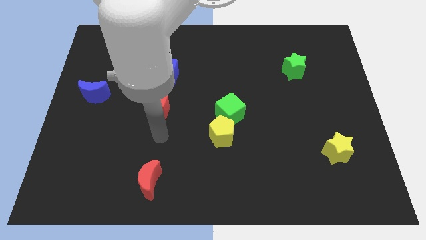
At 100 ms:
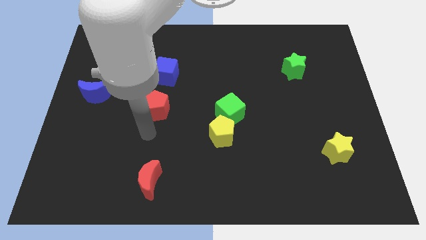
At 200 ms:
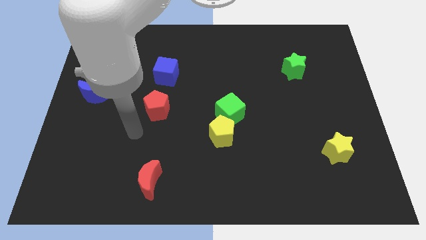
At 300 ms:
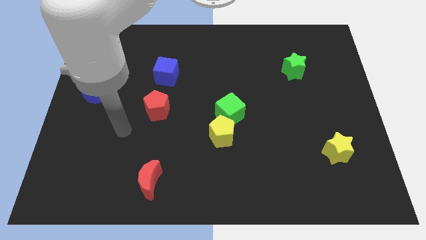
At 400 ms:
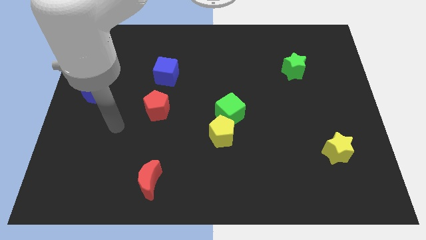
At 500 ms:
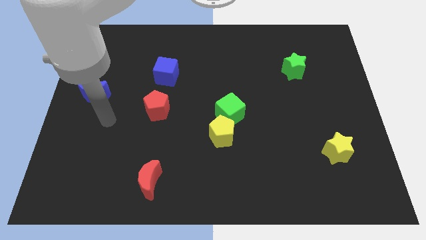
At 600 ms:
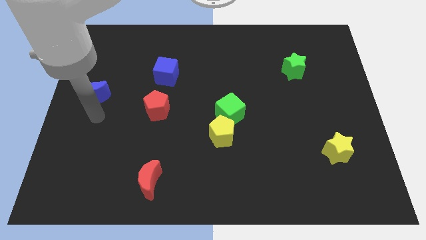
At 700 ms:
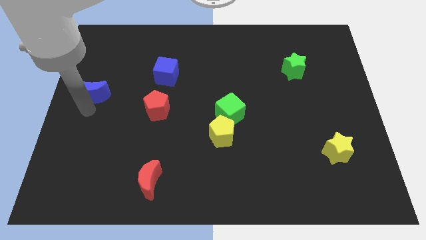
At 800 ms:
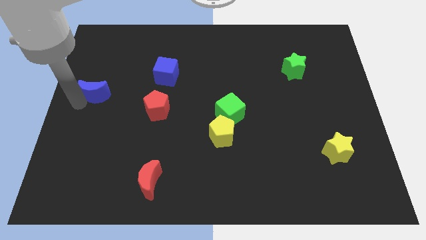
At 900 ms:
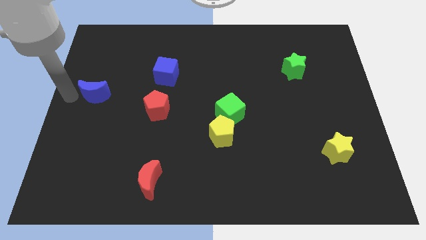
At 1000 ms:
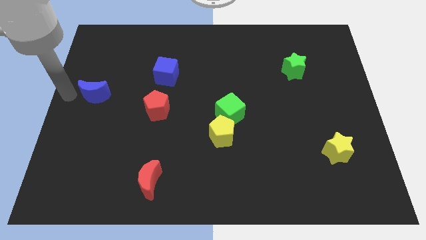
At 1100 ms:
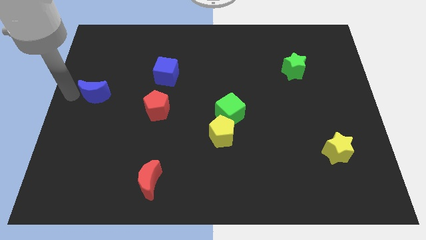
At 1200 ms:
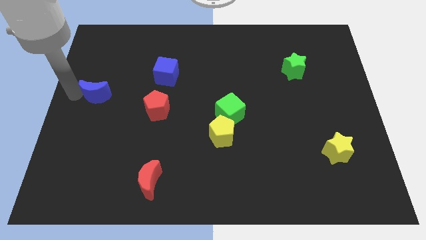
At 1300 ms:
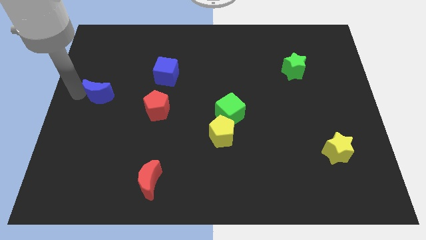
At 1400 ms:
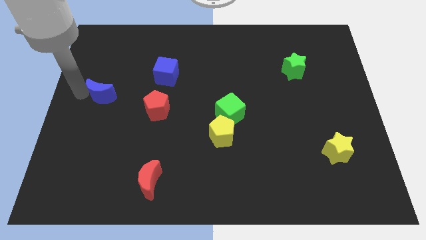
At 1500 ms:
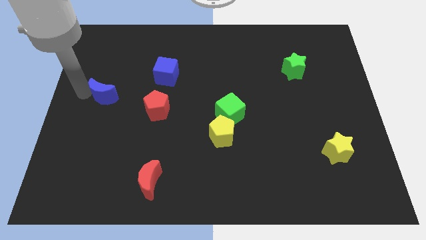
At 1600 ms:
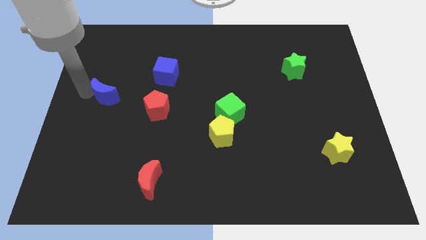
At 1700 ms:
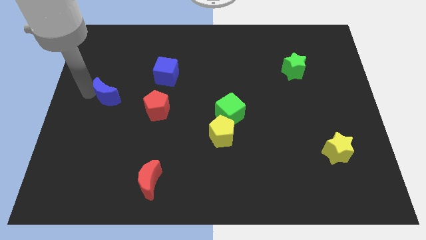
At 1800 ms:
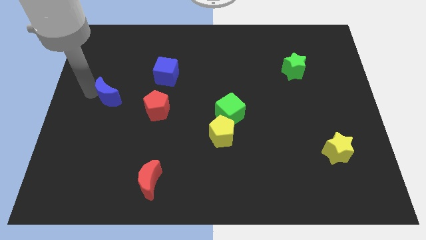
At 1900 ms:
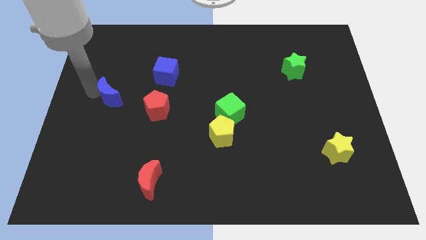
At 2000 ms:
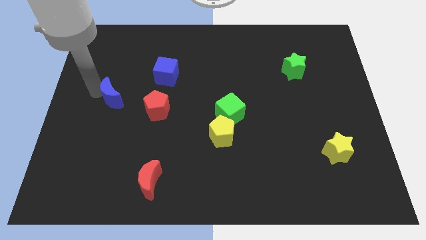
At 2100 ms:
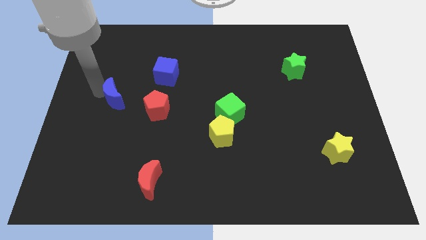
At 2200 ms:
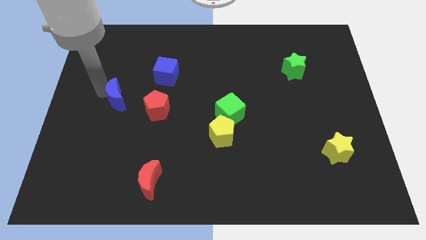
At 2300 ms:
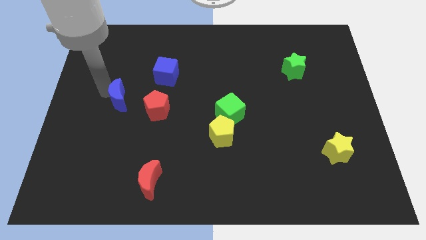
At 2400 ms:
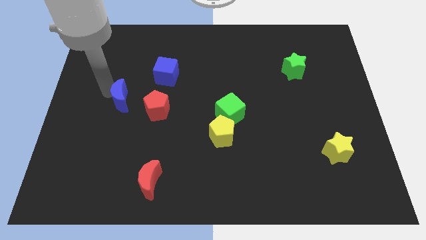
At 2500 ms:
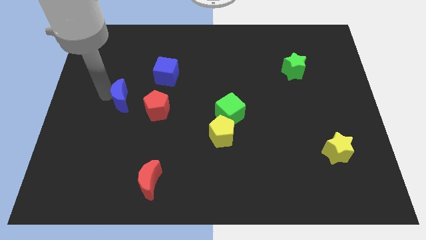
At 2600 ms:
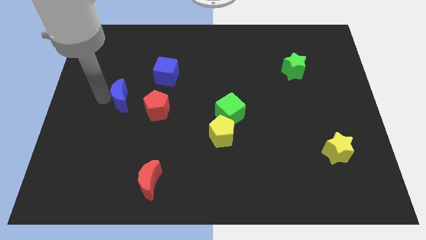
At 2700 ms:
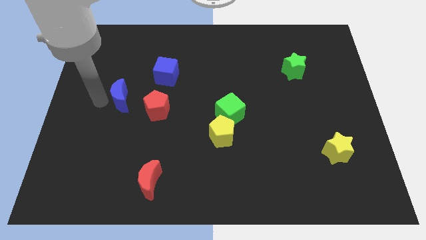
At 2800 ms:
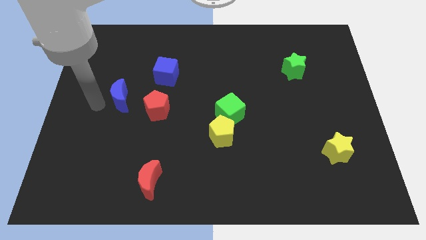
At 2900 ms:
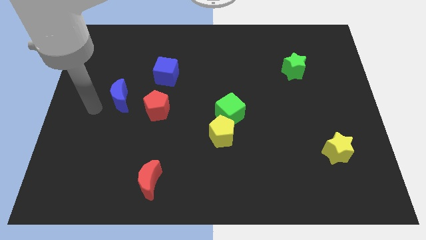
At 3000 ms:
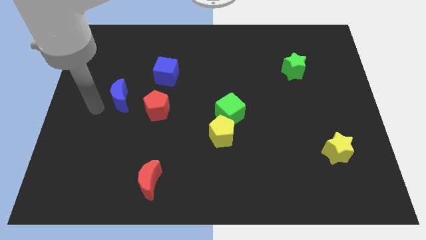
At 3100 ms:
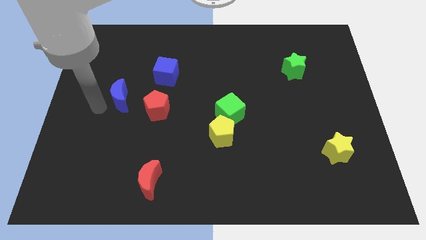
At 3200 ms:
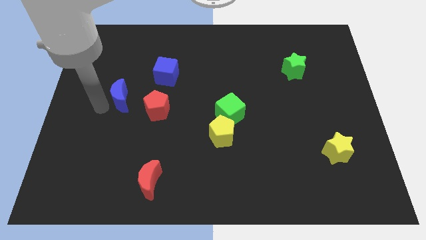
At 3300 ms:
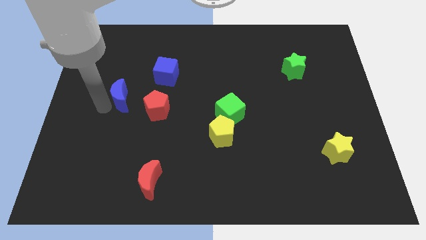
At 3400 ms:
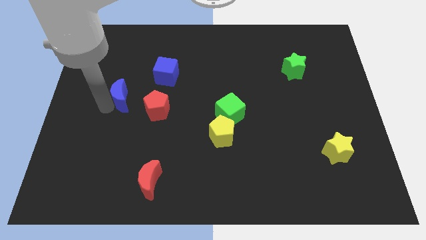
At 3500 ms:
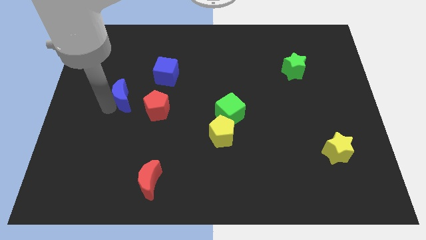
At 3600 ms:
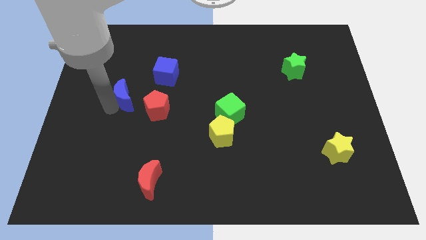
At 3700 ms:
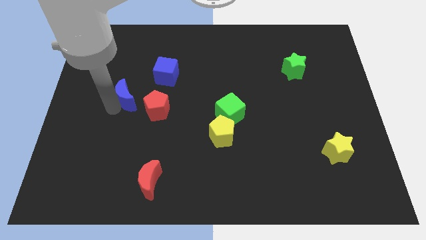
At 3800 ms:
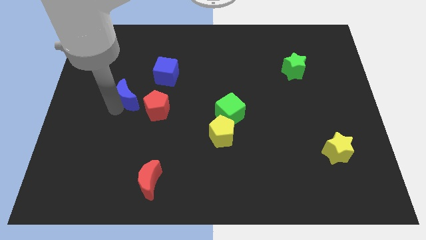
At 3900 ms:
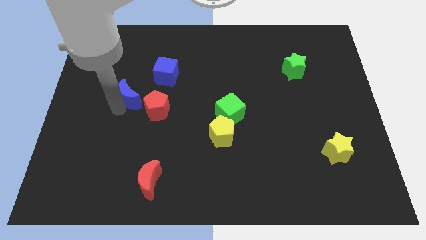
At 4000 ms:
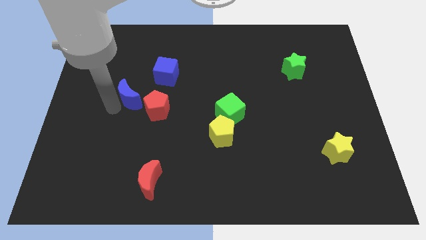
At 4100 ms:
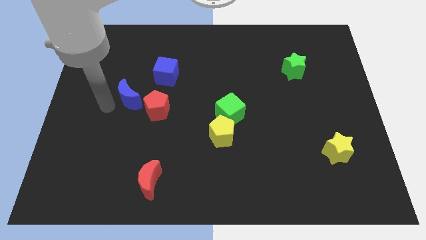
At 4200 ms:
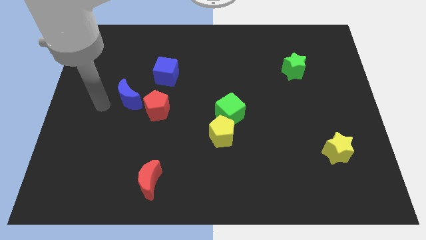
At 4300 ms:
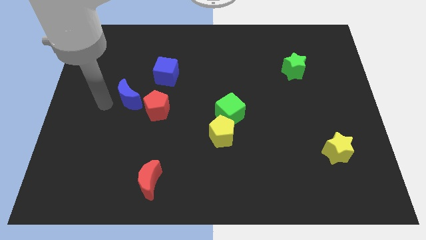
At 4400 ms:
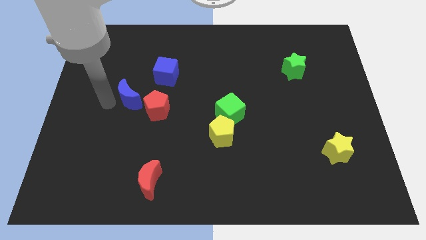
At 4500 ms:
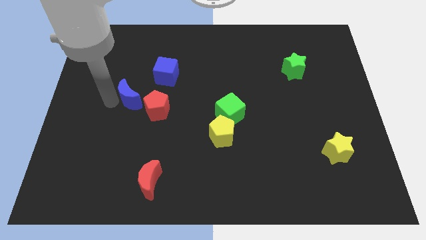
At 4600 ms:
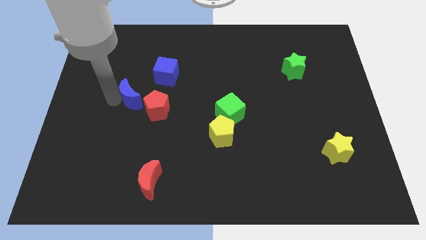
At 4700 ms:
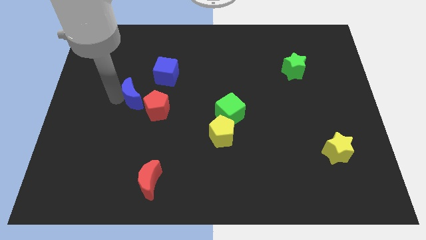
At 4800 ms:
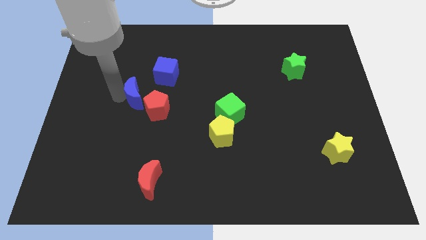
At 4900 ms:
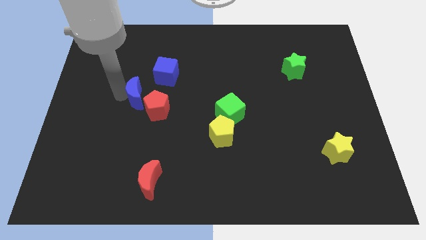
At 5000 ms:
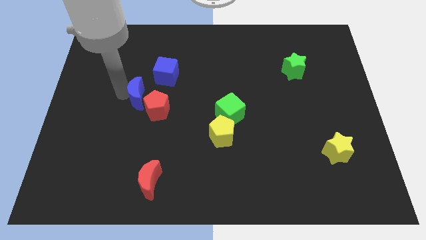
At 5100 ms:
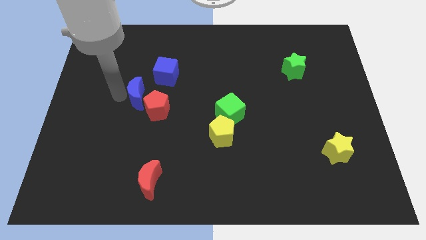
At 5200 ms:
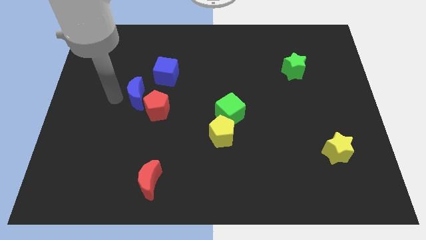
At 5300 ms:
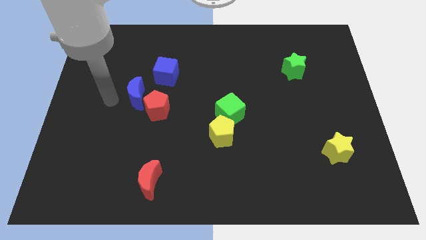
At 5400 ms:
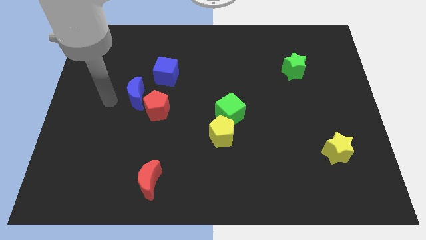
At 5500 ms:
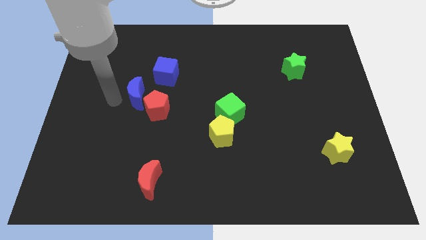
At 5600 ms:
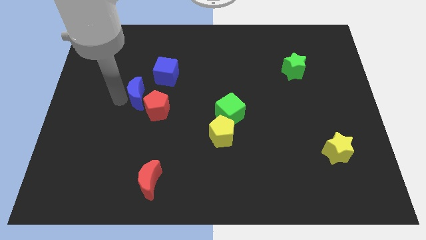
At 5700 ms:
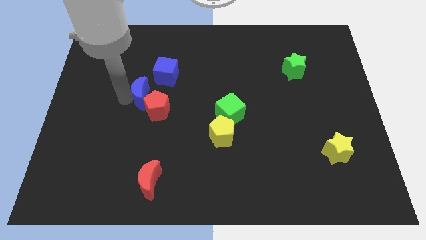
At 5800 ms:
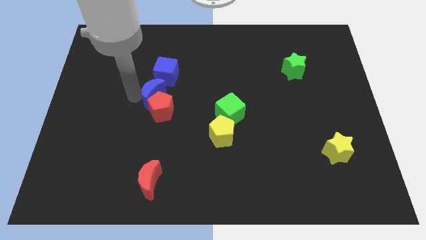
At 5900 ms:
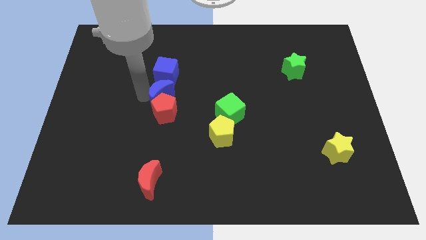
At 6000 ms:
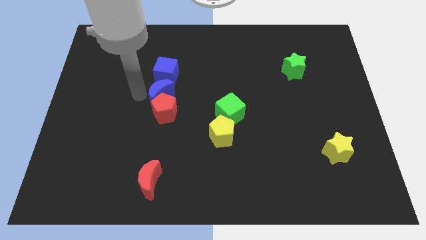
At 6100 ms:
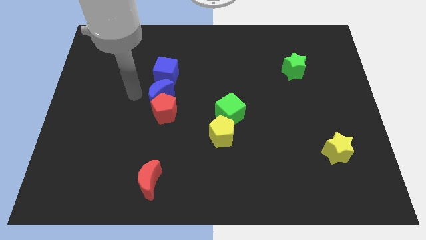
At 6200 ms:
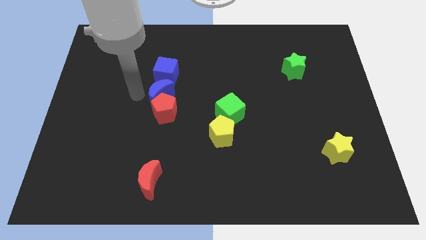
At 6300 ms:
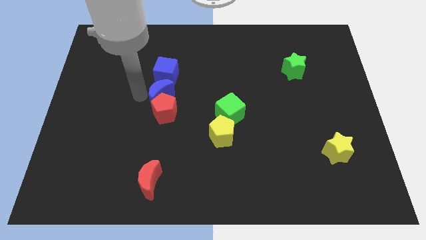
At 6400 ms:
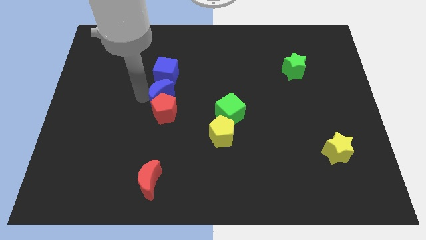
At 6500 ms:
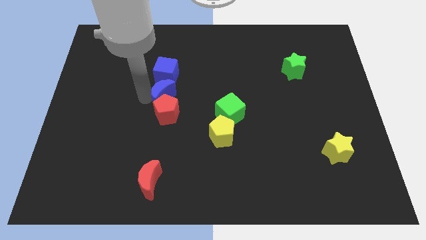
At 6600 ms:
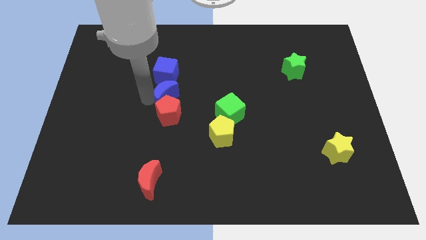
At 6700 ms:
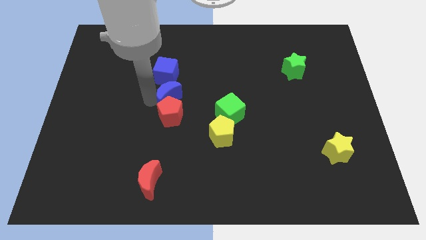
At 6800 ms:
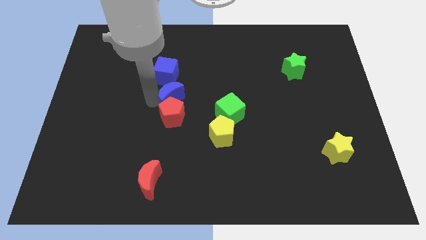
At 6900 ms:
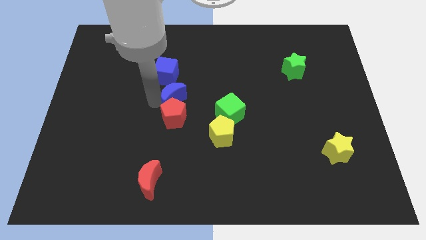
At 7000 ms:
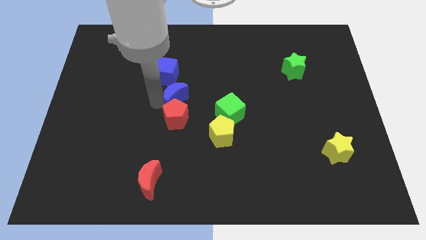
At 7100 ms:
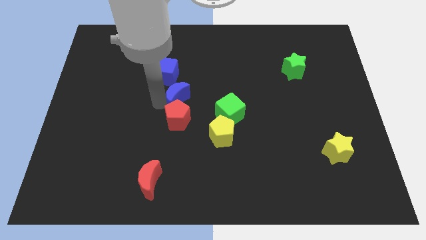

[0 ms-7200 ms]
push the blue moon right

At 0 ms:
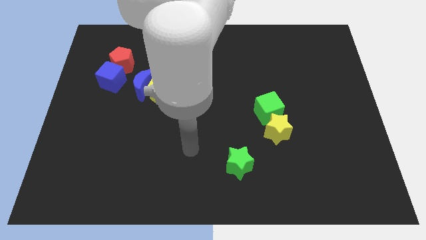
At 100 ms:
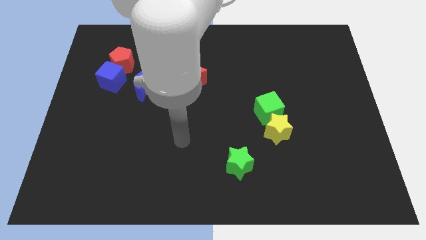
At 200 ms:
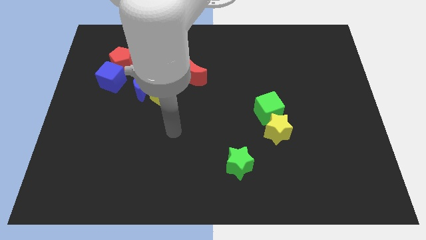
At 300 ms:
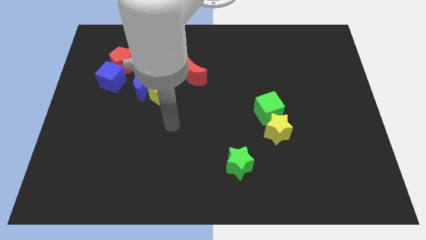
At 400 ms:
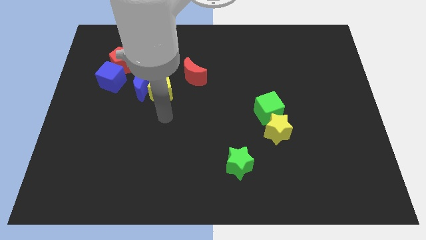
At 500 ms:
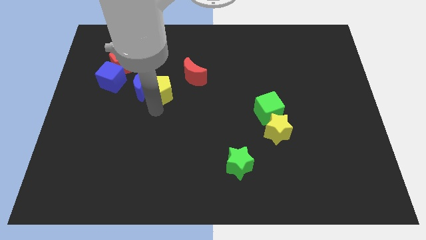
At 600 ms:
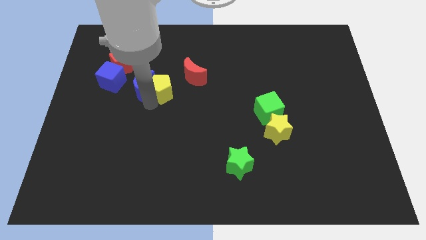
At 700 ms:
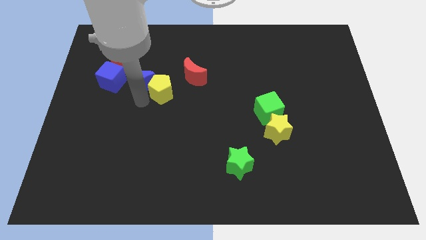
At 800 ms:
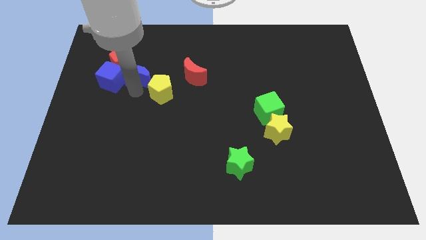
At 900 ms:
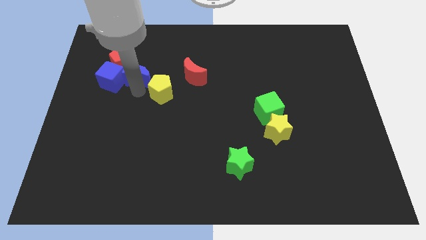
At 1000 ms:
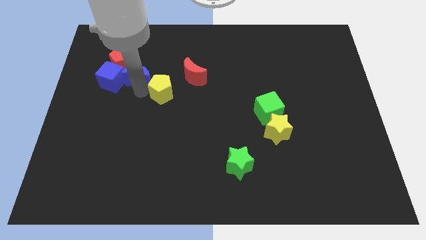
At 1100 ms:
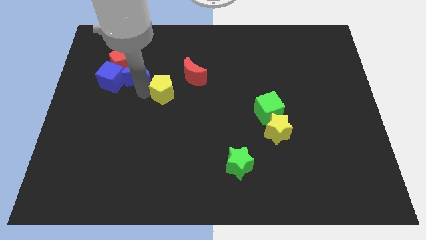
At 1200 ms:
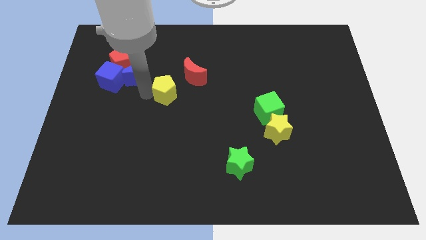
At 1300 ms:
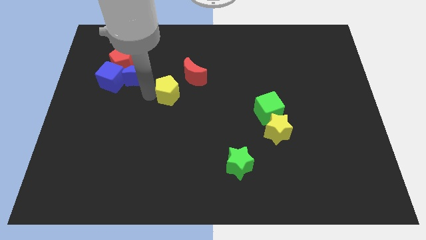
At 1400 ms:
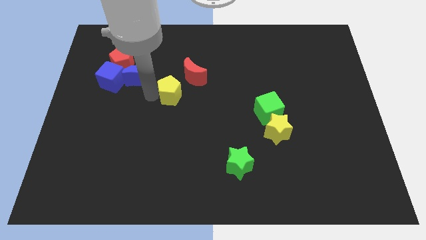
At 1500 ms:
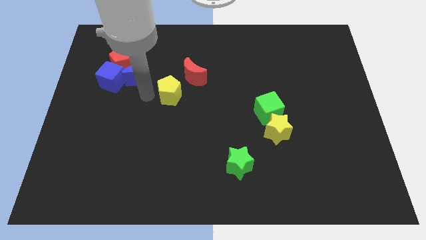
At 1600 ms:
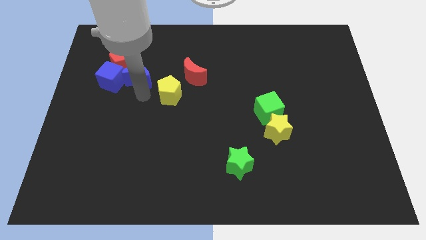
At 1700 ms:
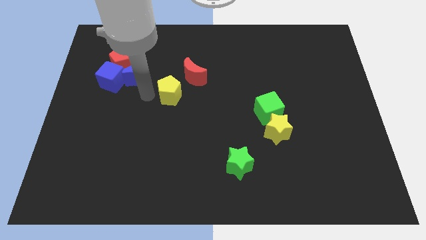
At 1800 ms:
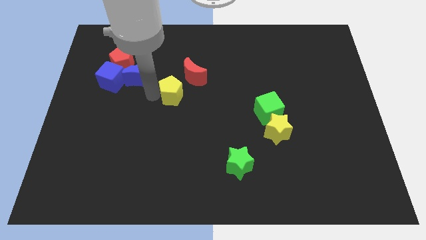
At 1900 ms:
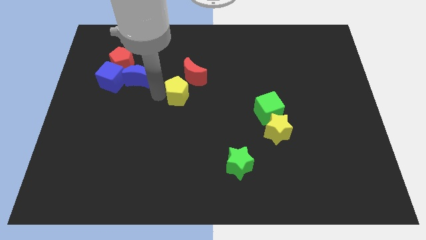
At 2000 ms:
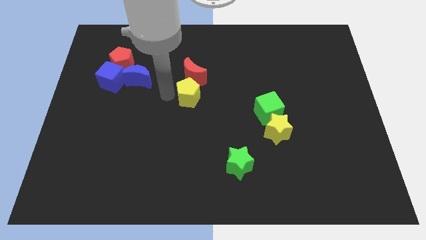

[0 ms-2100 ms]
push the yellow pentagon slightly to the right
